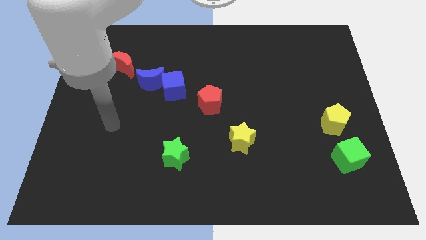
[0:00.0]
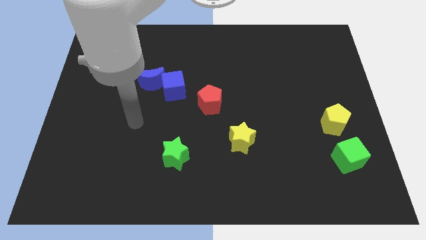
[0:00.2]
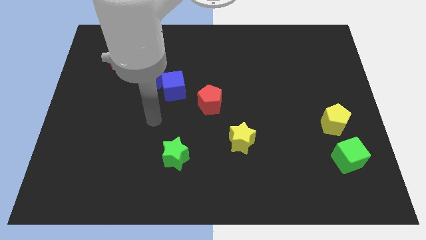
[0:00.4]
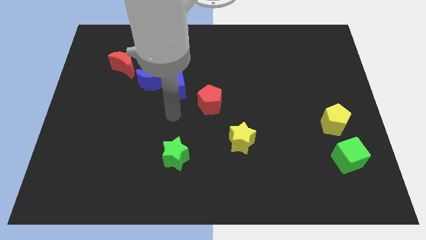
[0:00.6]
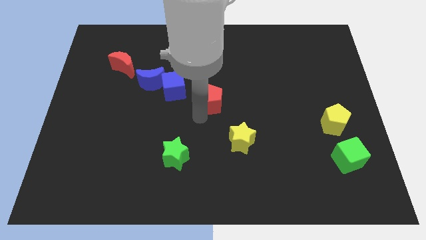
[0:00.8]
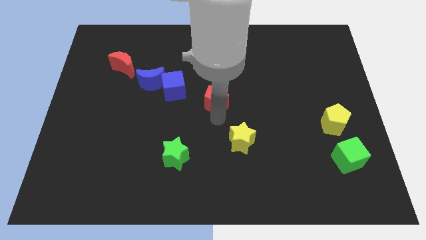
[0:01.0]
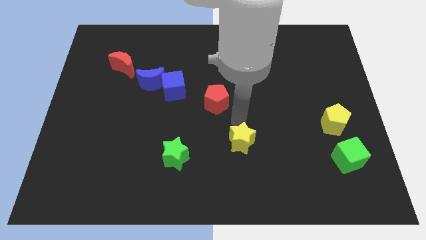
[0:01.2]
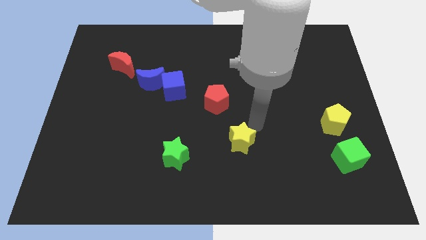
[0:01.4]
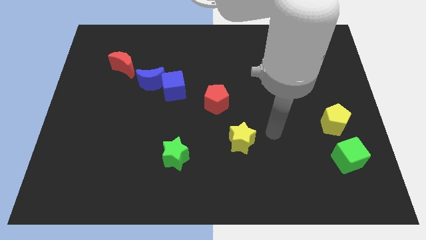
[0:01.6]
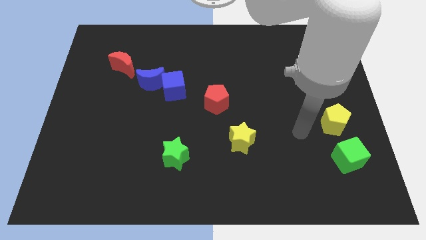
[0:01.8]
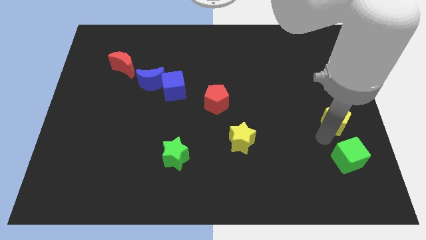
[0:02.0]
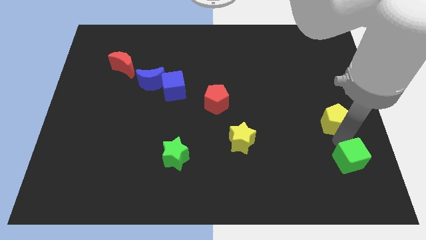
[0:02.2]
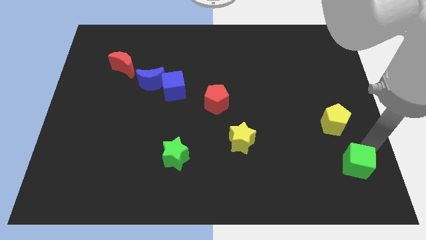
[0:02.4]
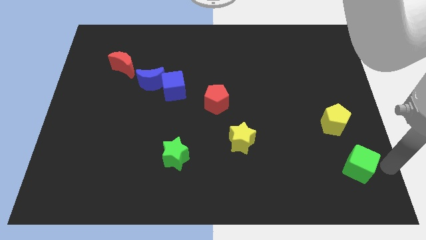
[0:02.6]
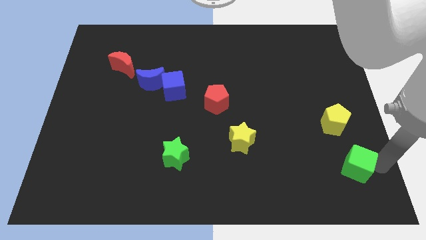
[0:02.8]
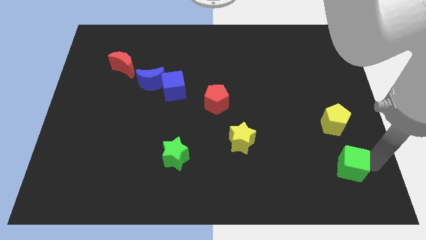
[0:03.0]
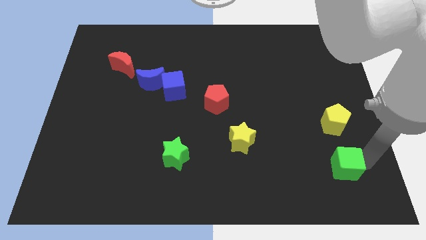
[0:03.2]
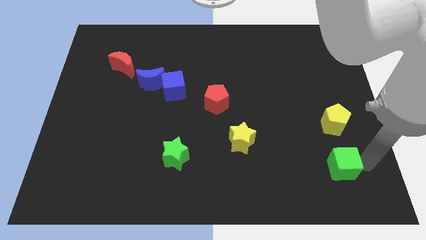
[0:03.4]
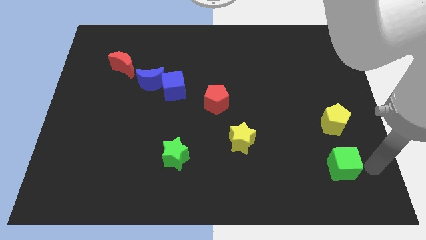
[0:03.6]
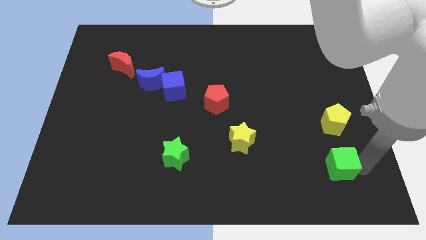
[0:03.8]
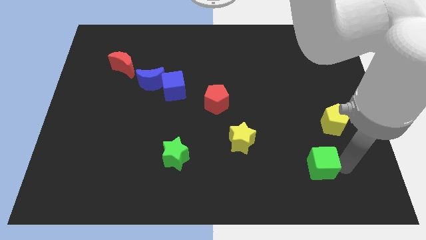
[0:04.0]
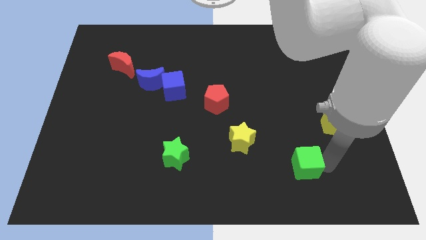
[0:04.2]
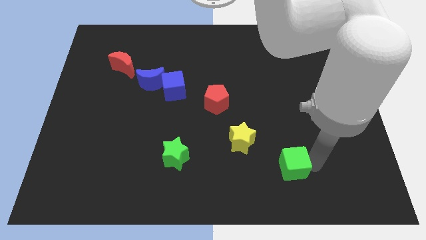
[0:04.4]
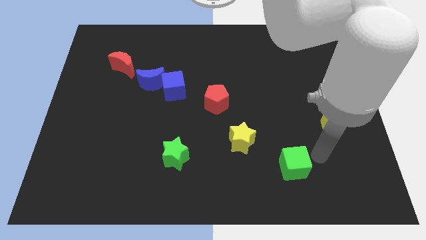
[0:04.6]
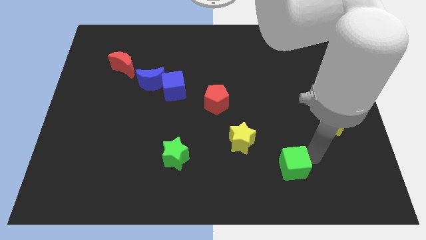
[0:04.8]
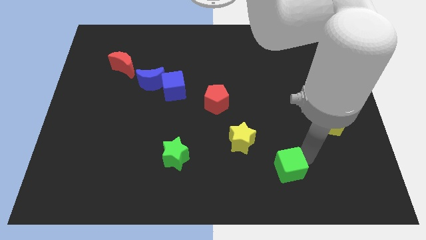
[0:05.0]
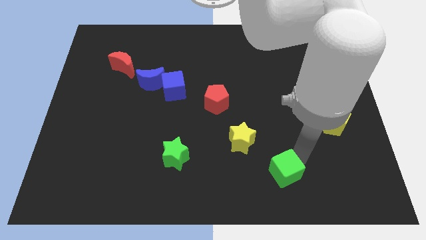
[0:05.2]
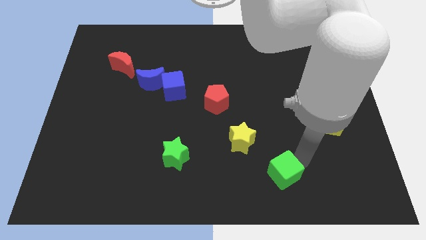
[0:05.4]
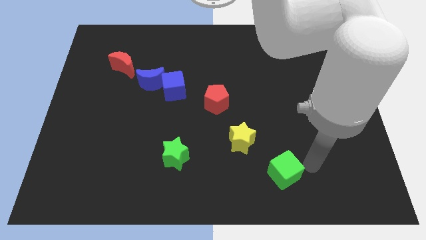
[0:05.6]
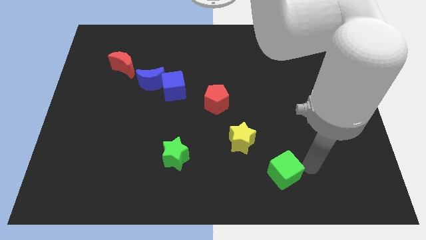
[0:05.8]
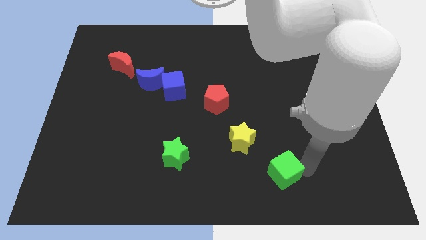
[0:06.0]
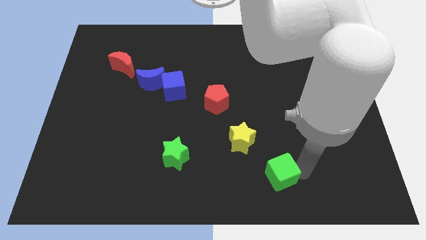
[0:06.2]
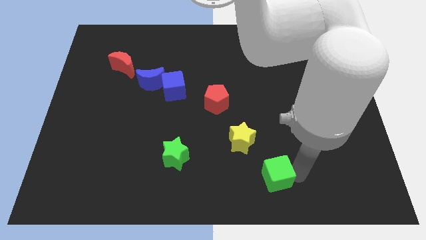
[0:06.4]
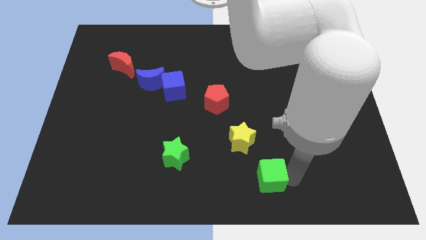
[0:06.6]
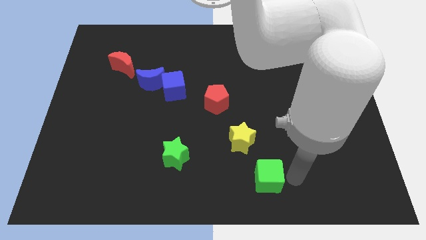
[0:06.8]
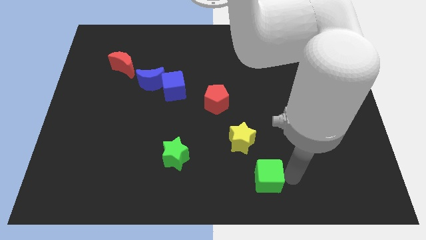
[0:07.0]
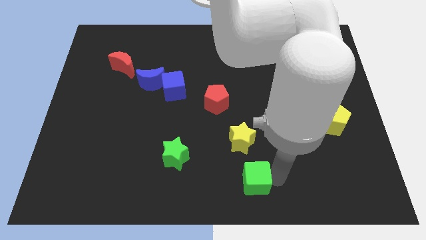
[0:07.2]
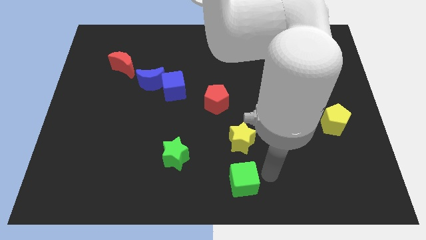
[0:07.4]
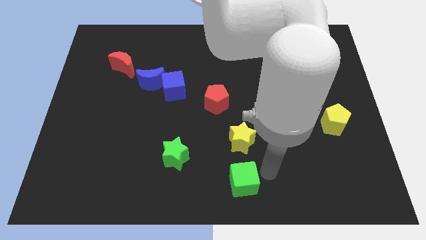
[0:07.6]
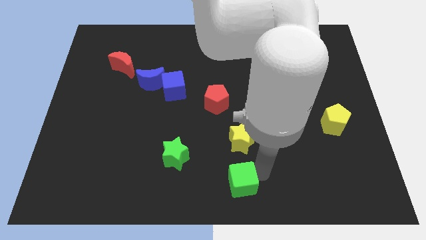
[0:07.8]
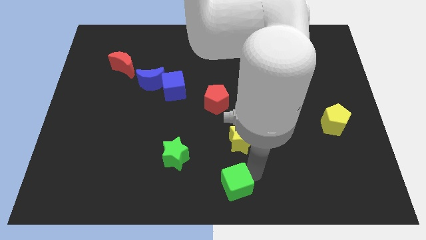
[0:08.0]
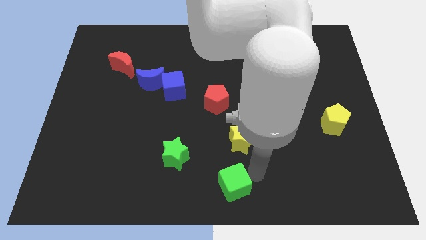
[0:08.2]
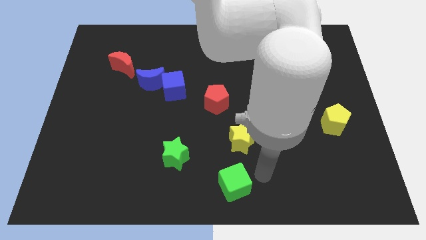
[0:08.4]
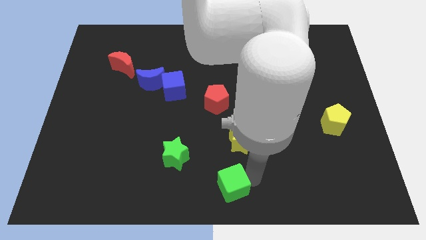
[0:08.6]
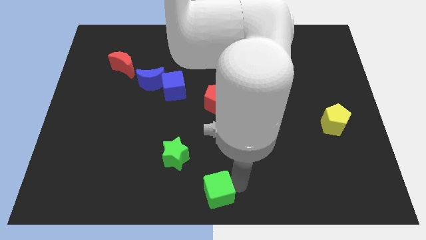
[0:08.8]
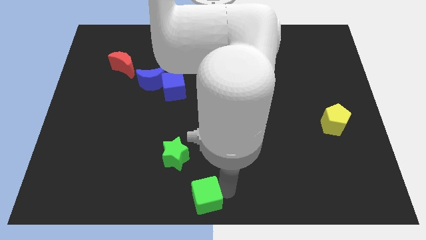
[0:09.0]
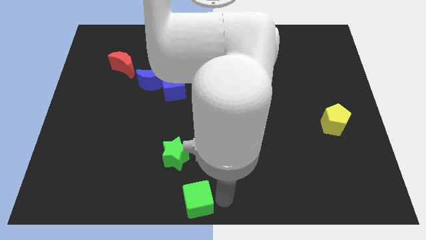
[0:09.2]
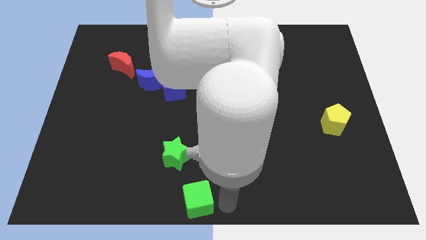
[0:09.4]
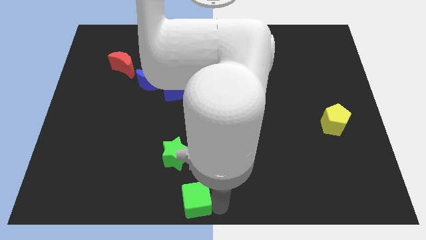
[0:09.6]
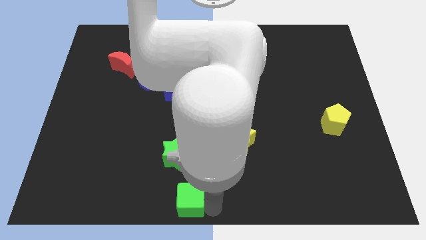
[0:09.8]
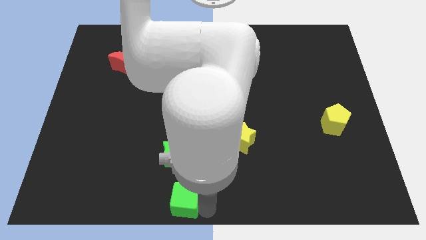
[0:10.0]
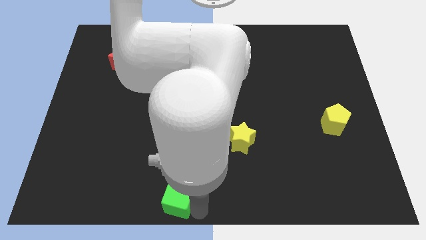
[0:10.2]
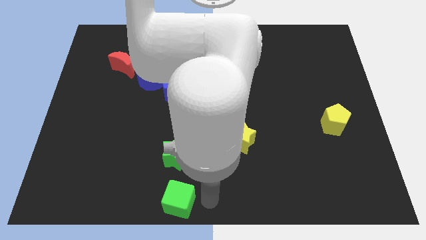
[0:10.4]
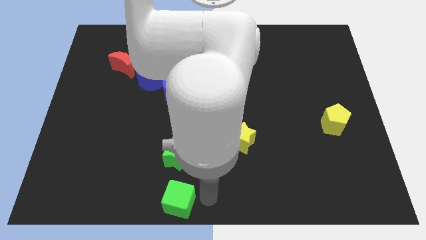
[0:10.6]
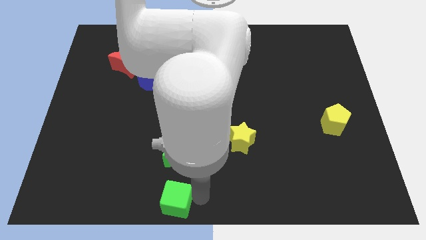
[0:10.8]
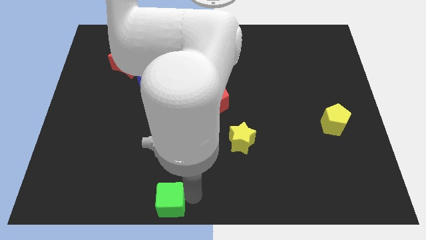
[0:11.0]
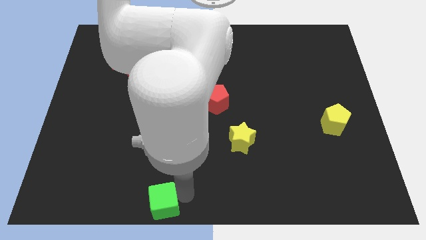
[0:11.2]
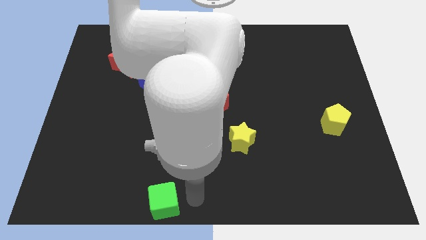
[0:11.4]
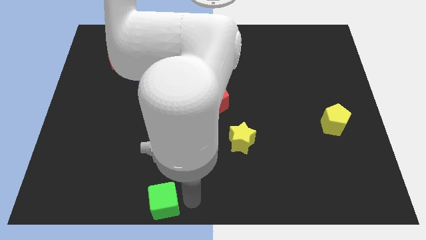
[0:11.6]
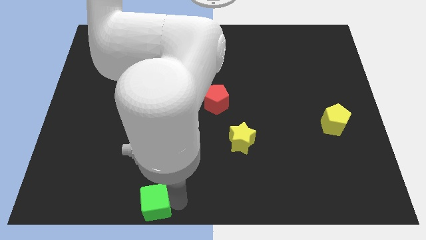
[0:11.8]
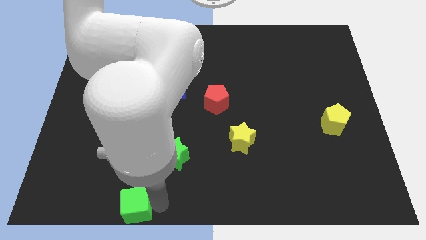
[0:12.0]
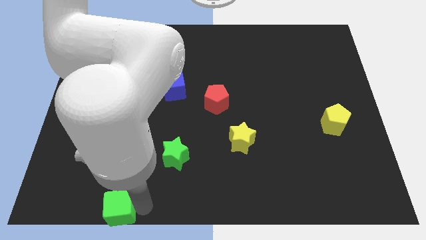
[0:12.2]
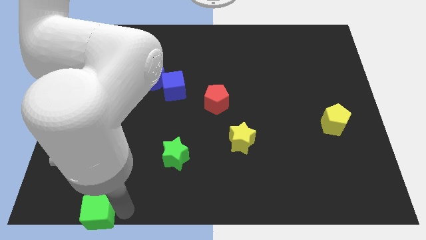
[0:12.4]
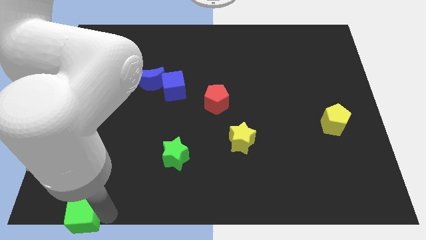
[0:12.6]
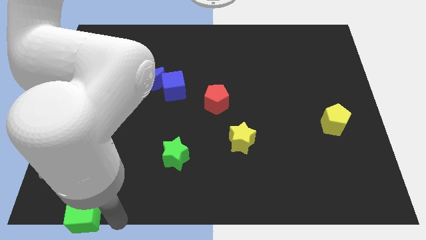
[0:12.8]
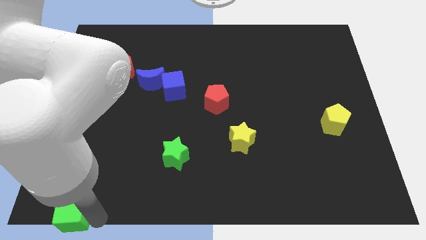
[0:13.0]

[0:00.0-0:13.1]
slide the green cube to the bottom left of the board
